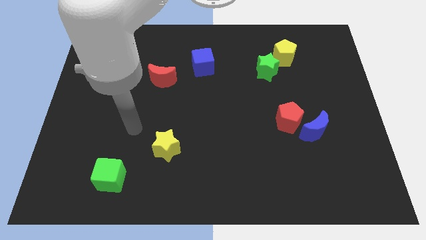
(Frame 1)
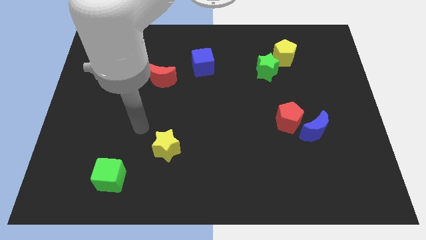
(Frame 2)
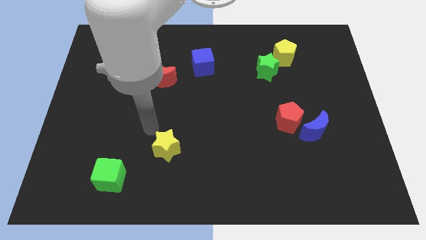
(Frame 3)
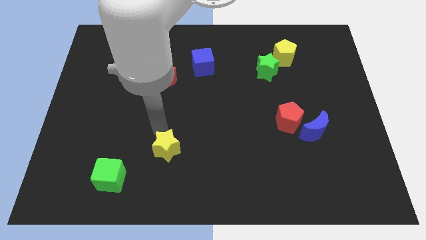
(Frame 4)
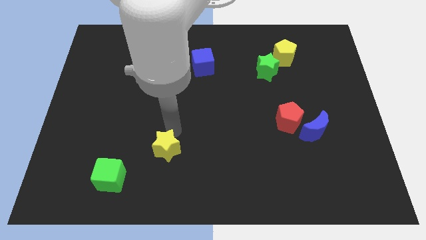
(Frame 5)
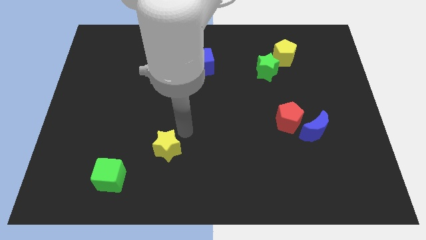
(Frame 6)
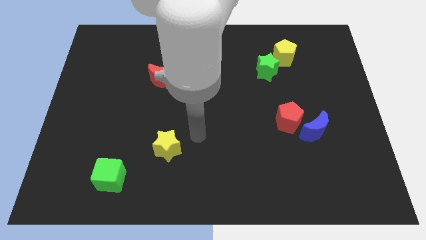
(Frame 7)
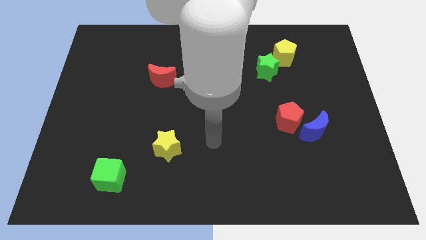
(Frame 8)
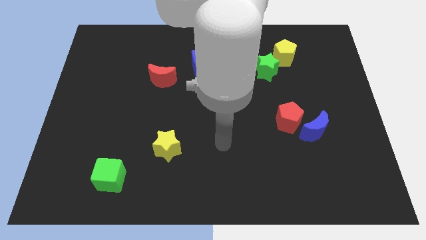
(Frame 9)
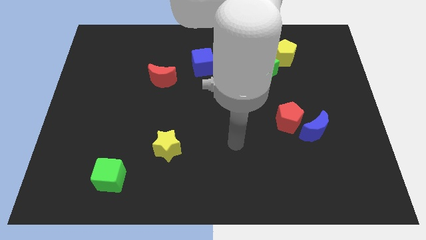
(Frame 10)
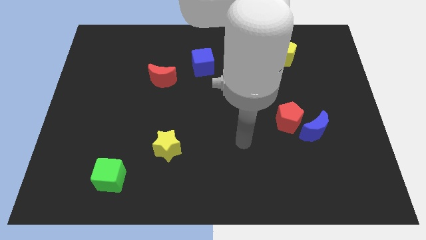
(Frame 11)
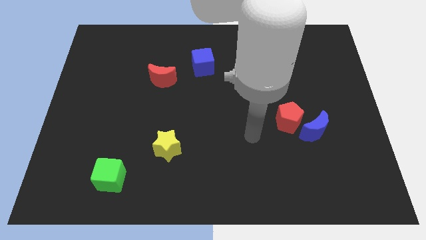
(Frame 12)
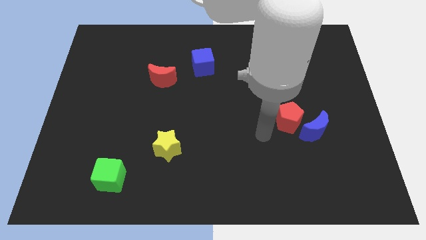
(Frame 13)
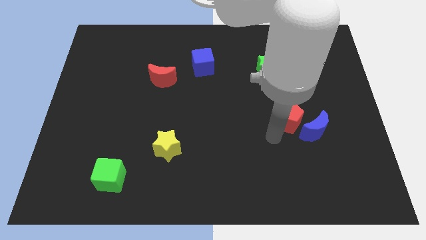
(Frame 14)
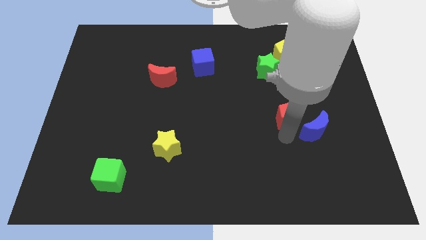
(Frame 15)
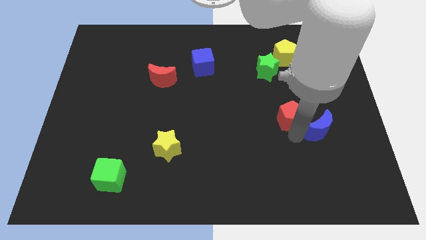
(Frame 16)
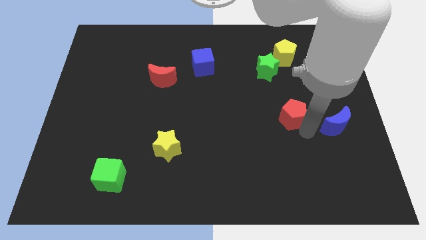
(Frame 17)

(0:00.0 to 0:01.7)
pull the red pentagon apart from the blue moon

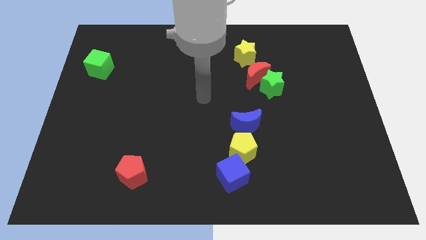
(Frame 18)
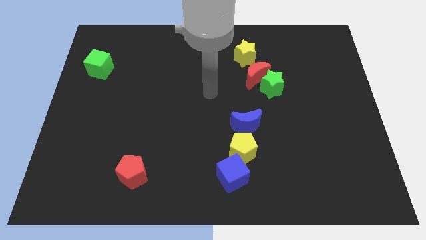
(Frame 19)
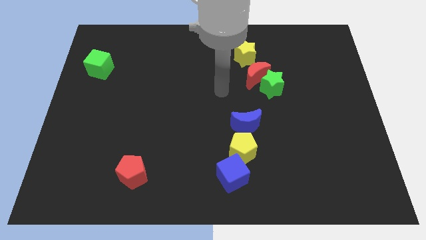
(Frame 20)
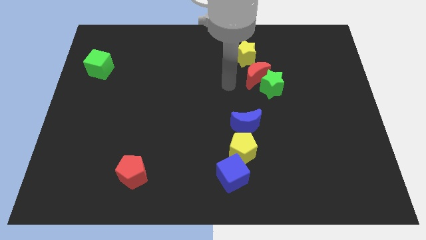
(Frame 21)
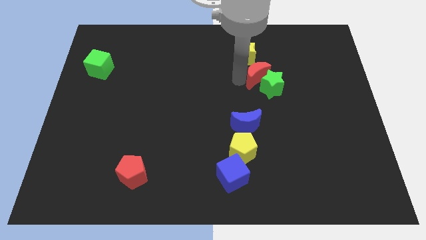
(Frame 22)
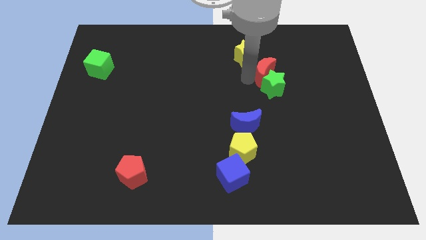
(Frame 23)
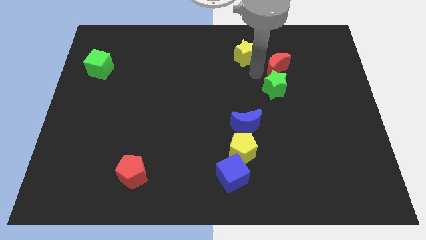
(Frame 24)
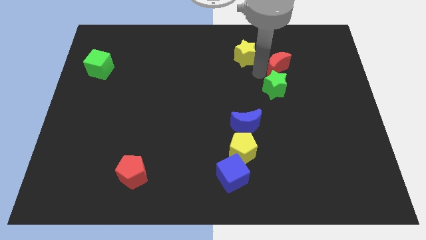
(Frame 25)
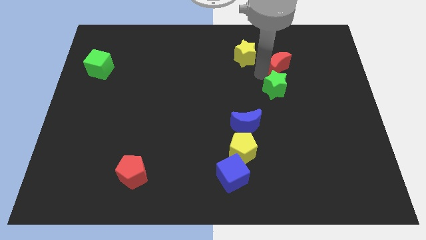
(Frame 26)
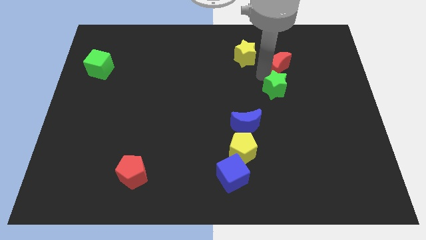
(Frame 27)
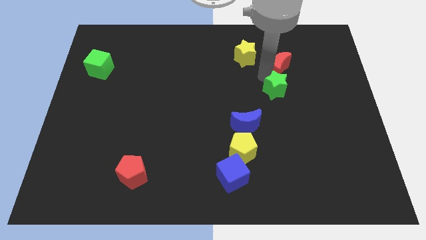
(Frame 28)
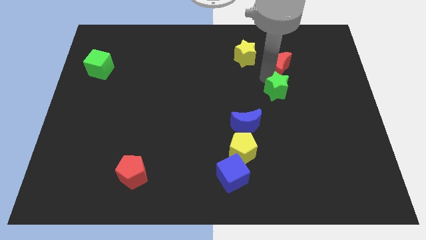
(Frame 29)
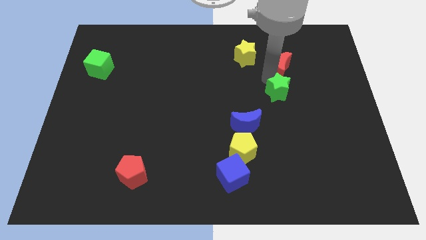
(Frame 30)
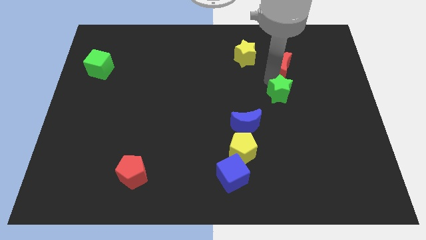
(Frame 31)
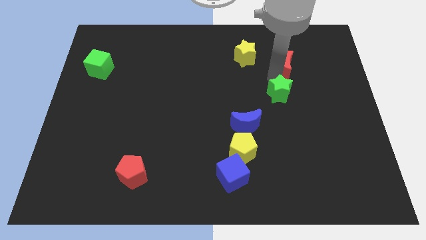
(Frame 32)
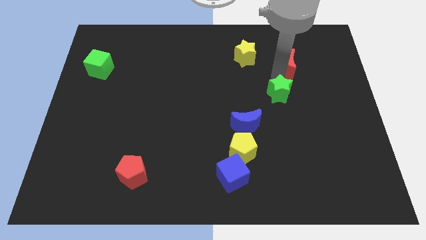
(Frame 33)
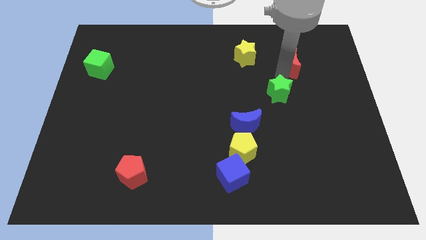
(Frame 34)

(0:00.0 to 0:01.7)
move the green star away from the red moon

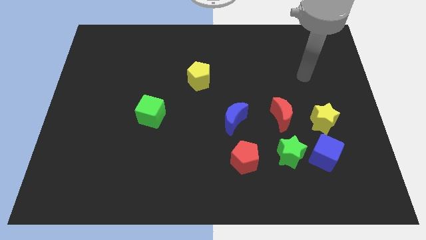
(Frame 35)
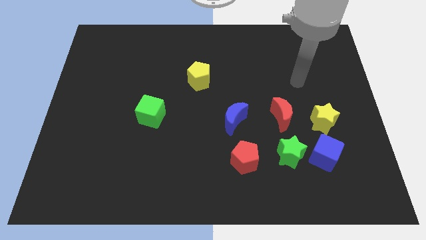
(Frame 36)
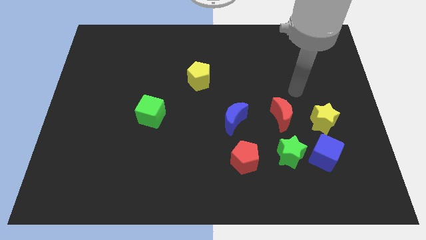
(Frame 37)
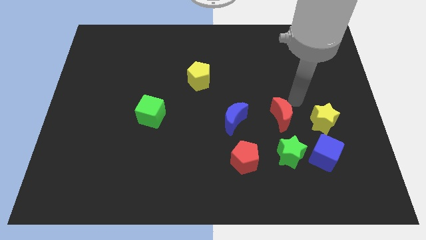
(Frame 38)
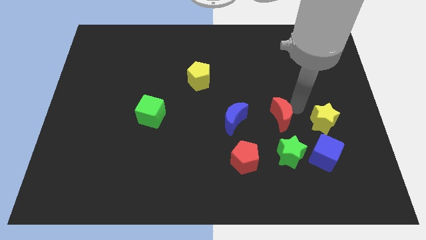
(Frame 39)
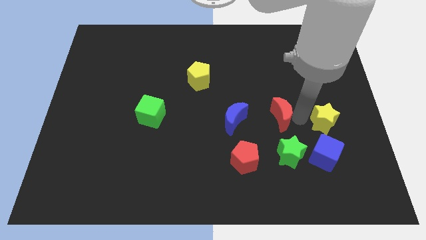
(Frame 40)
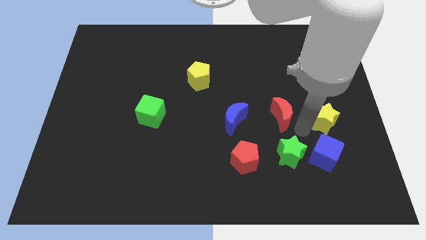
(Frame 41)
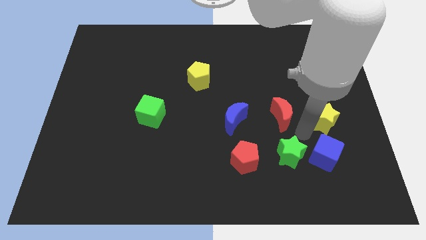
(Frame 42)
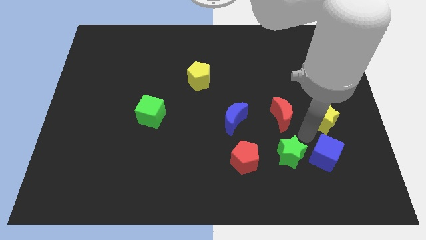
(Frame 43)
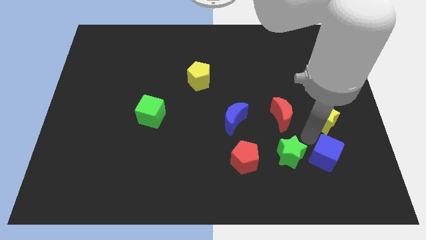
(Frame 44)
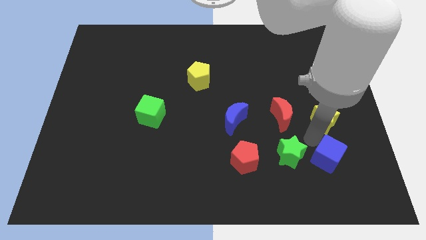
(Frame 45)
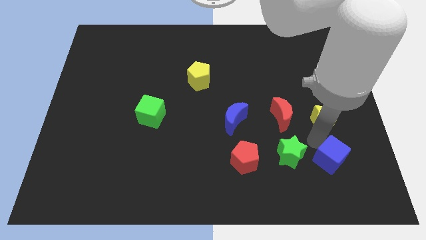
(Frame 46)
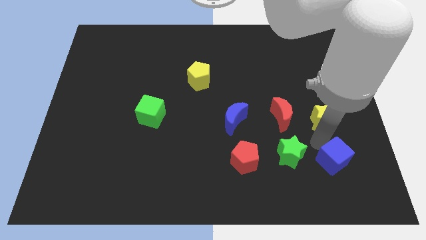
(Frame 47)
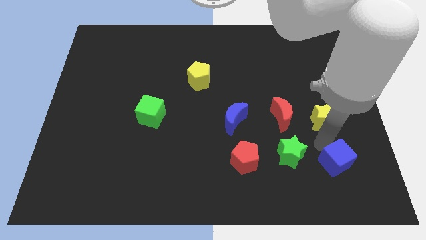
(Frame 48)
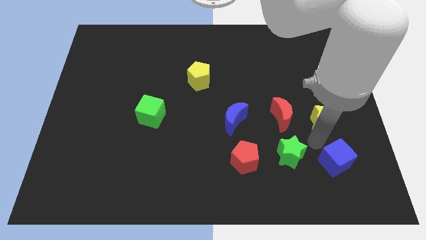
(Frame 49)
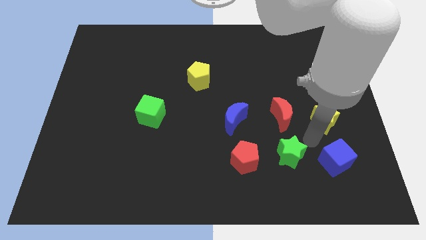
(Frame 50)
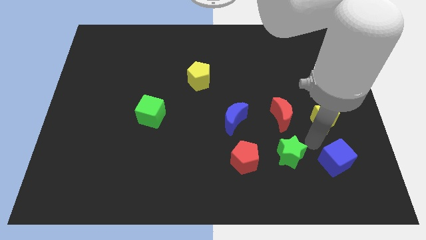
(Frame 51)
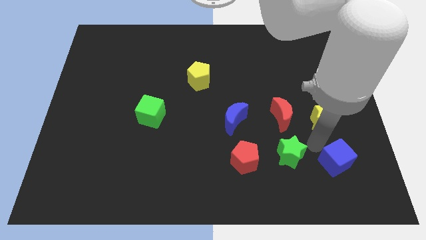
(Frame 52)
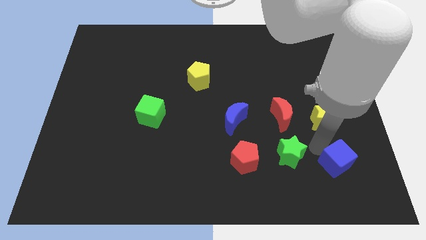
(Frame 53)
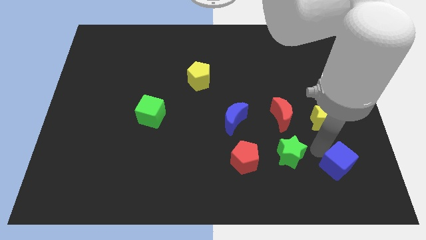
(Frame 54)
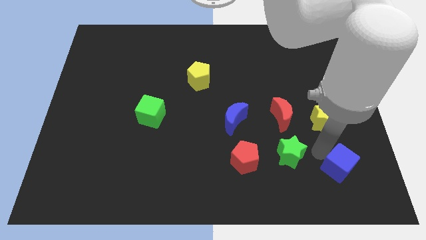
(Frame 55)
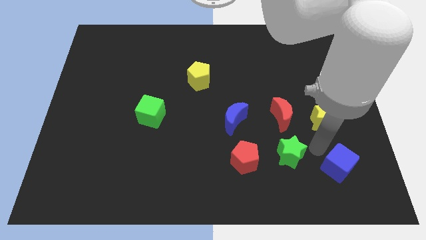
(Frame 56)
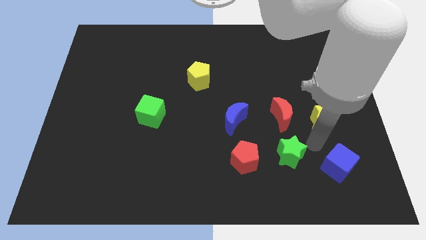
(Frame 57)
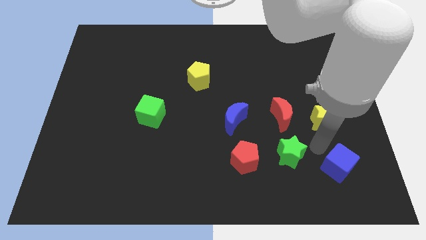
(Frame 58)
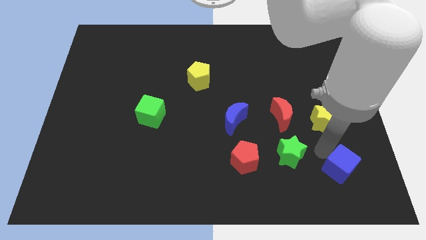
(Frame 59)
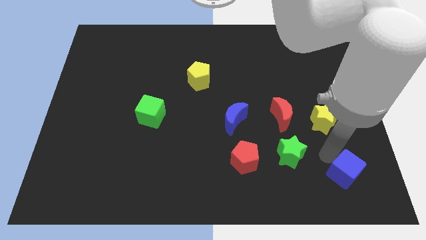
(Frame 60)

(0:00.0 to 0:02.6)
separate the blue cube from the green star and yellow star

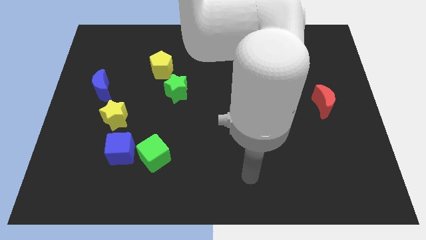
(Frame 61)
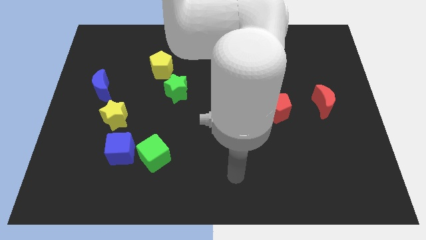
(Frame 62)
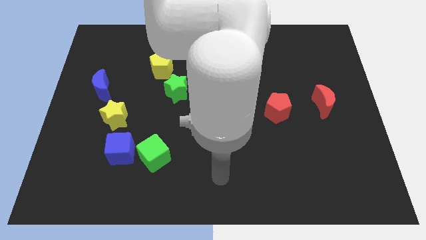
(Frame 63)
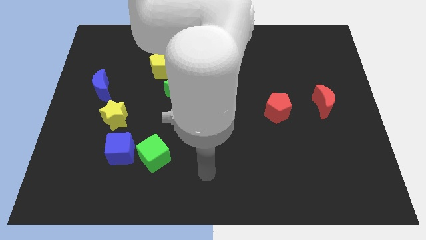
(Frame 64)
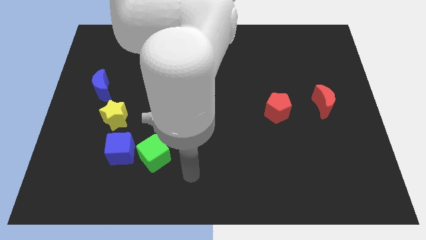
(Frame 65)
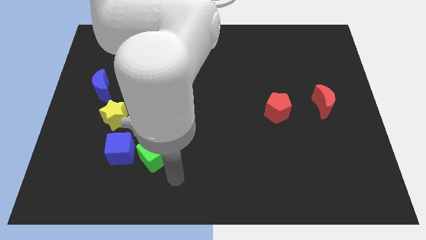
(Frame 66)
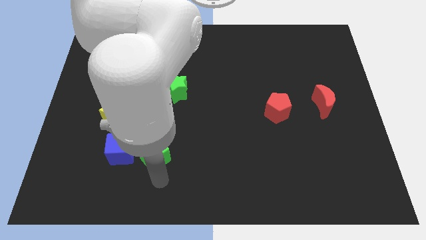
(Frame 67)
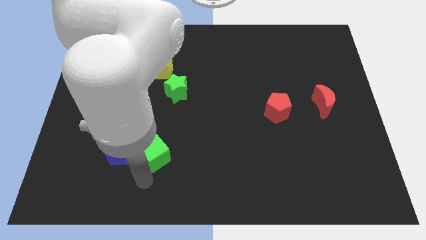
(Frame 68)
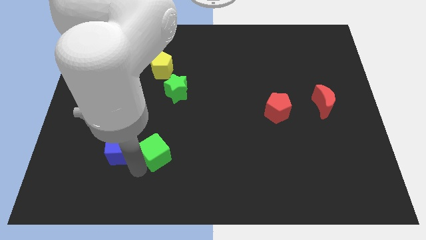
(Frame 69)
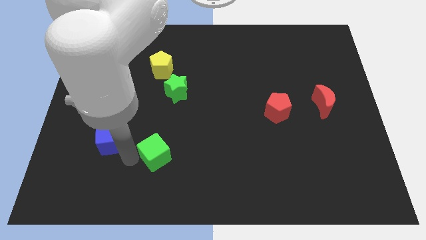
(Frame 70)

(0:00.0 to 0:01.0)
separate the green cube from the blue cube

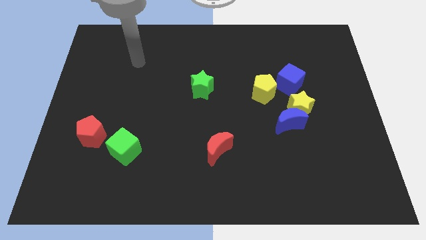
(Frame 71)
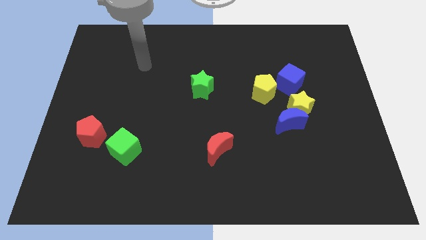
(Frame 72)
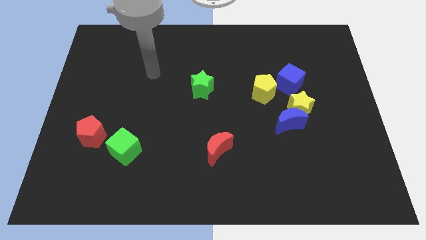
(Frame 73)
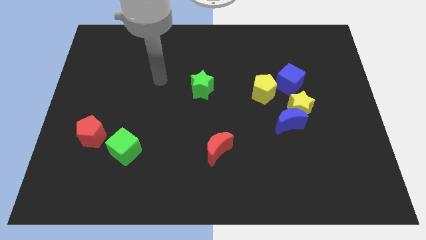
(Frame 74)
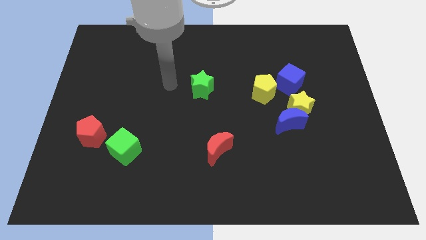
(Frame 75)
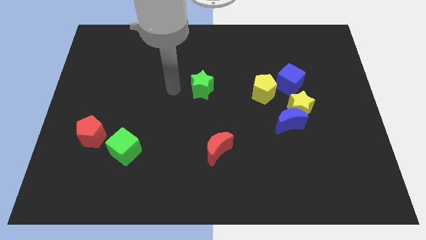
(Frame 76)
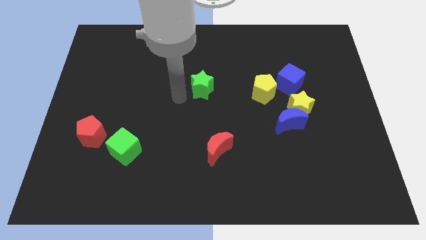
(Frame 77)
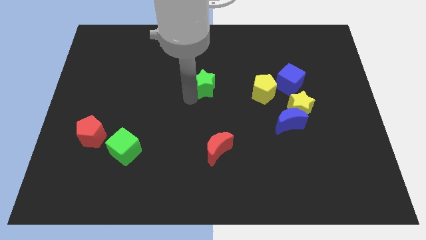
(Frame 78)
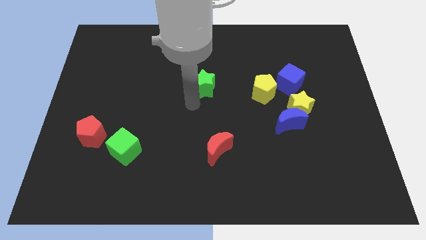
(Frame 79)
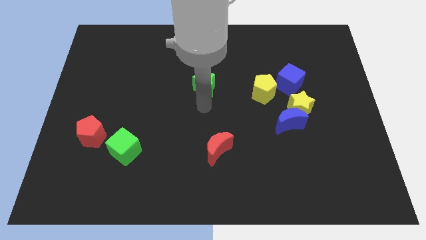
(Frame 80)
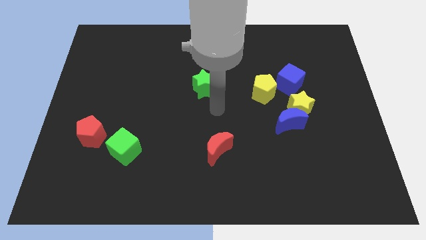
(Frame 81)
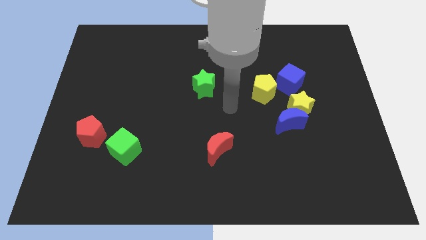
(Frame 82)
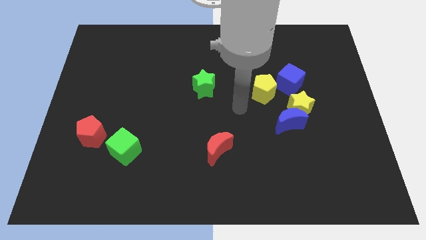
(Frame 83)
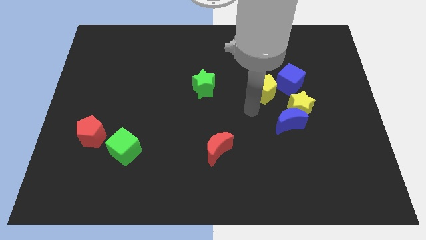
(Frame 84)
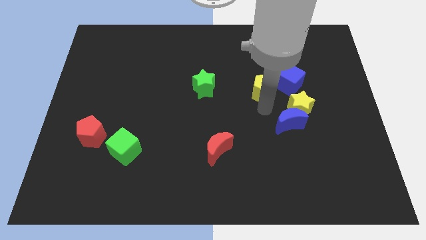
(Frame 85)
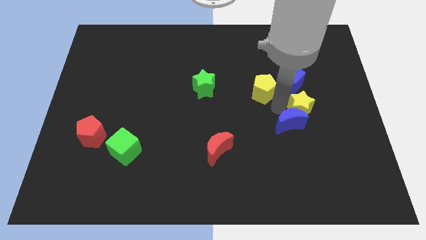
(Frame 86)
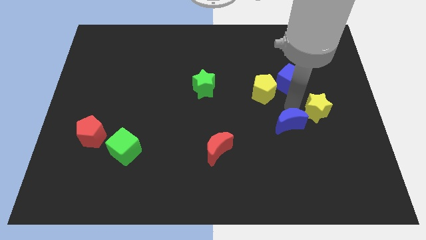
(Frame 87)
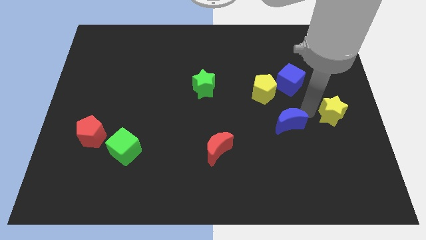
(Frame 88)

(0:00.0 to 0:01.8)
pull the blue moon apart from the yellow star

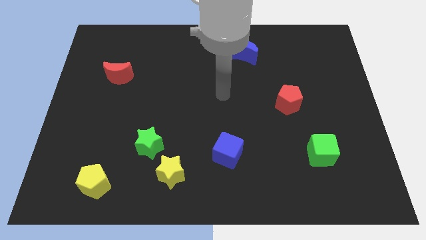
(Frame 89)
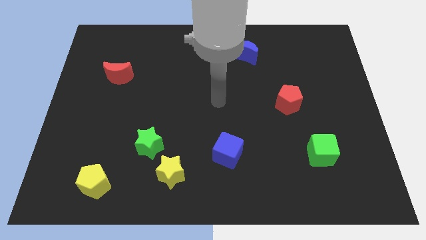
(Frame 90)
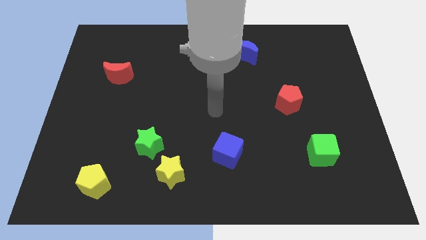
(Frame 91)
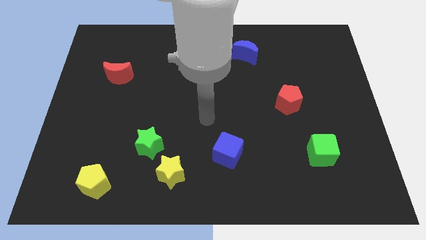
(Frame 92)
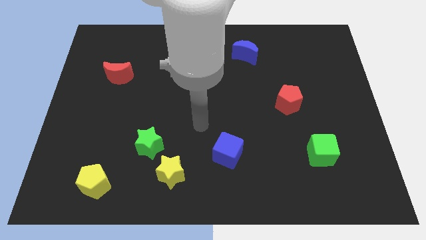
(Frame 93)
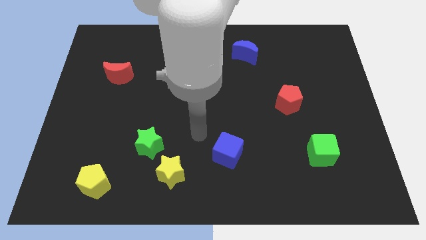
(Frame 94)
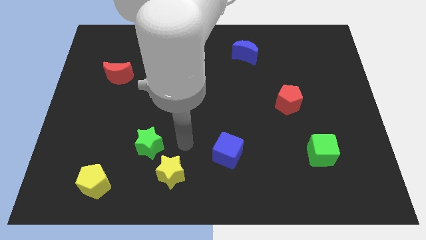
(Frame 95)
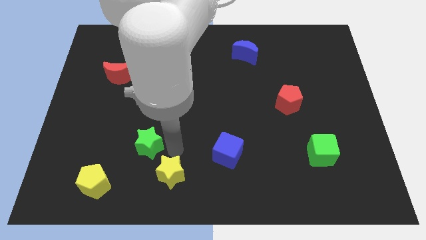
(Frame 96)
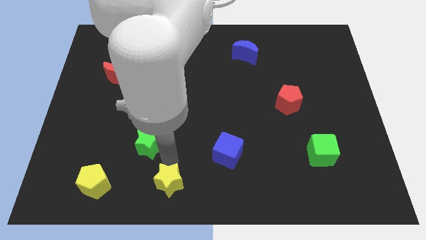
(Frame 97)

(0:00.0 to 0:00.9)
separate the green star from the yellow star
